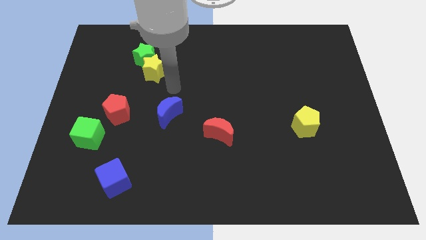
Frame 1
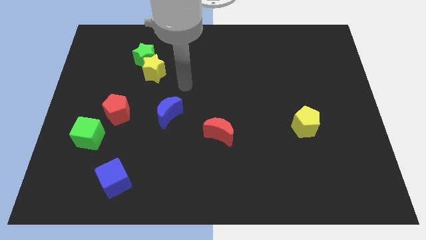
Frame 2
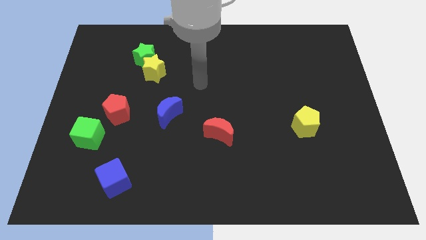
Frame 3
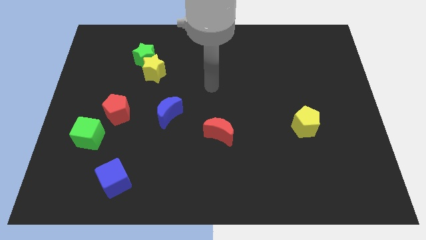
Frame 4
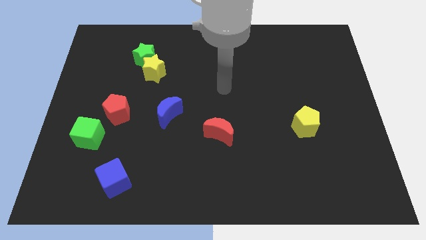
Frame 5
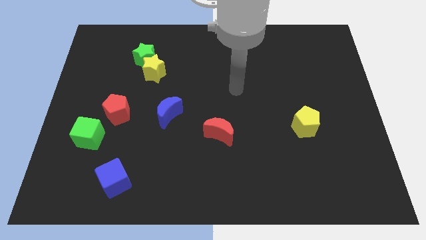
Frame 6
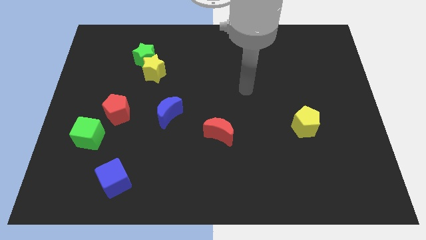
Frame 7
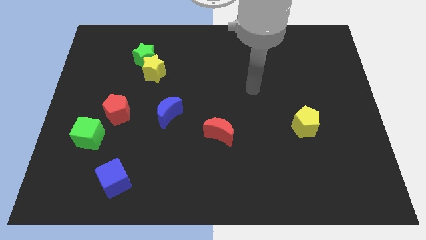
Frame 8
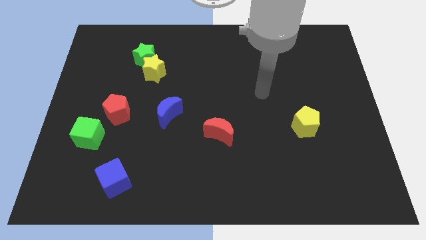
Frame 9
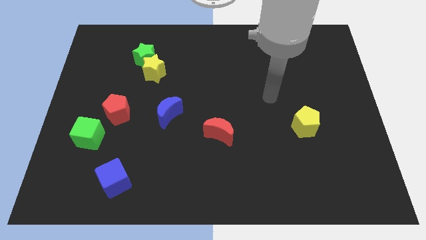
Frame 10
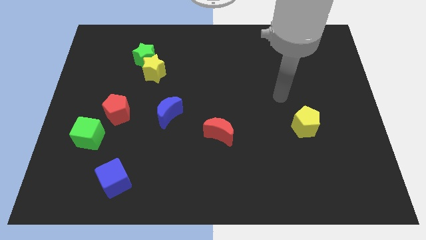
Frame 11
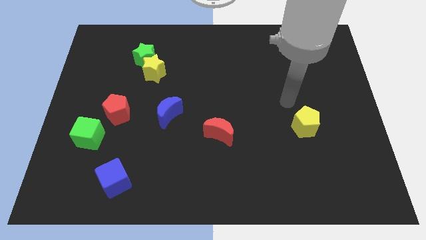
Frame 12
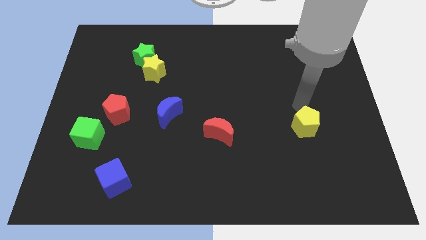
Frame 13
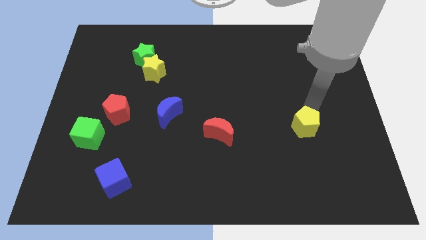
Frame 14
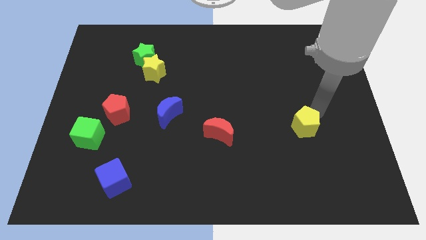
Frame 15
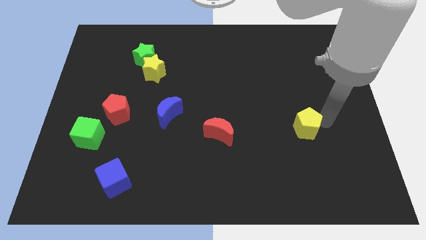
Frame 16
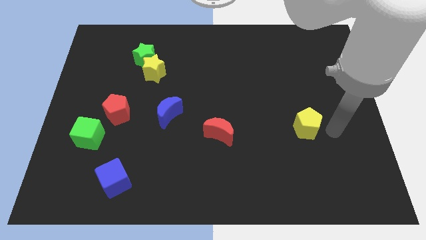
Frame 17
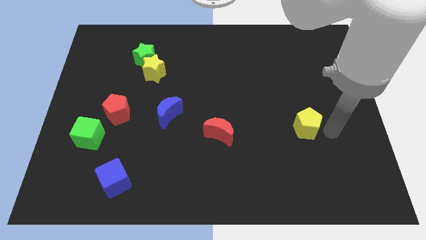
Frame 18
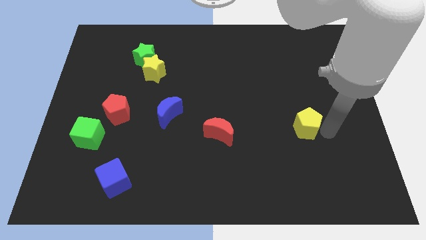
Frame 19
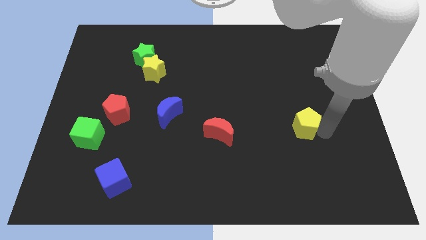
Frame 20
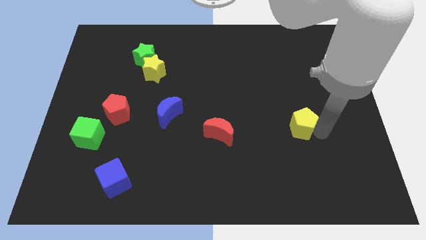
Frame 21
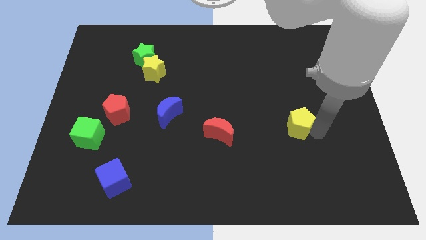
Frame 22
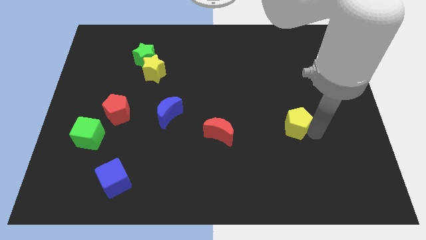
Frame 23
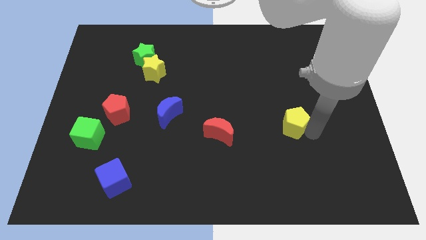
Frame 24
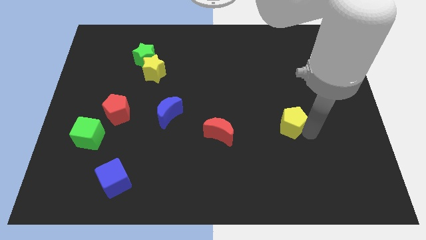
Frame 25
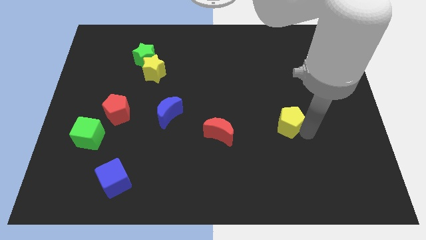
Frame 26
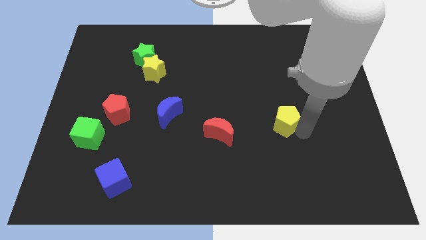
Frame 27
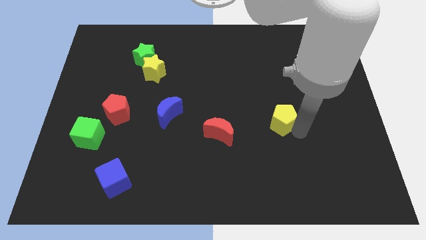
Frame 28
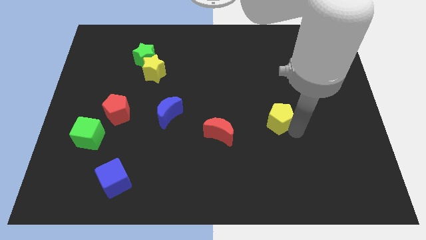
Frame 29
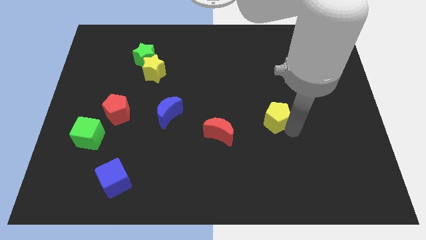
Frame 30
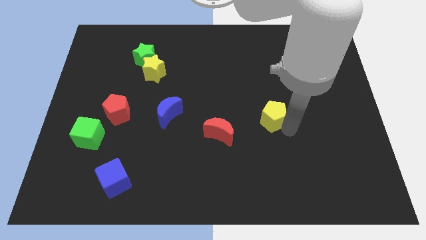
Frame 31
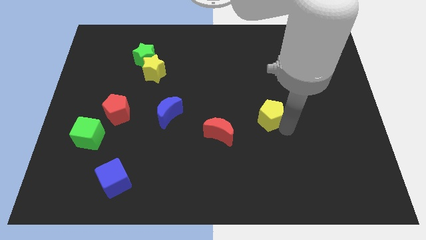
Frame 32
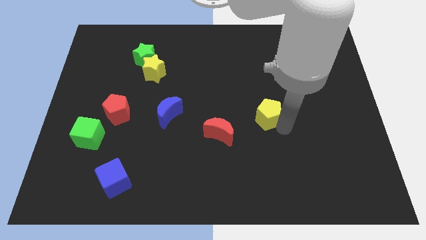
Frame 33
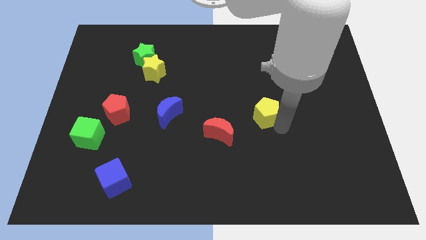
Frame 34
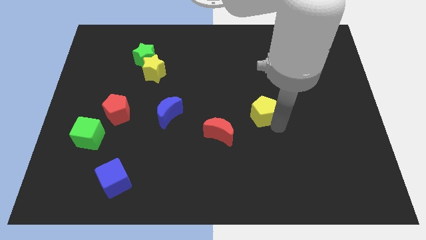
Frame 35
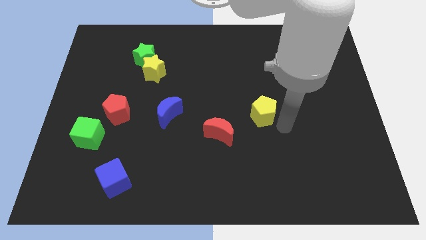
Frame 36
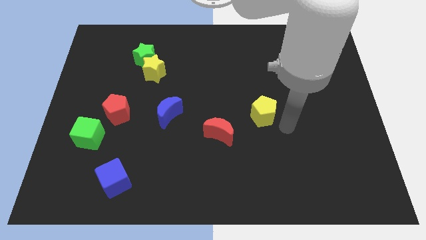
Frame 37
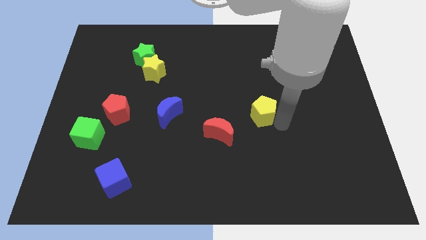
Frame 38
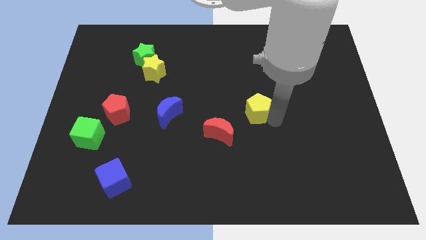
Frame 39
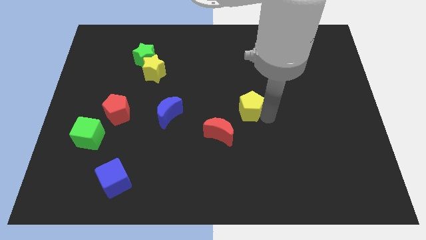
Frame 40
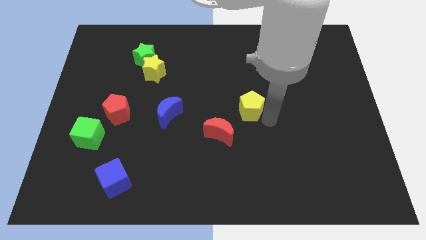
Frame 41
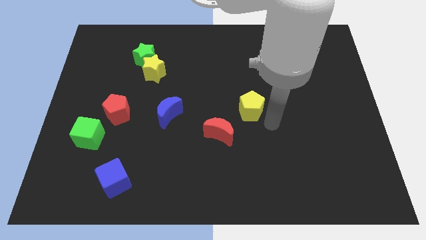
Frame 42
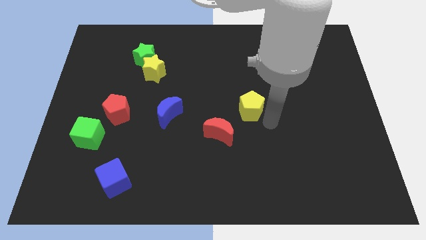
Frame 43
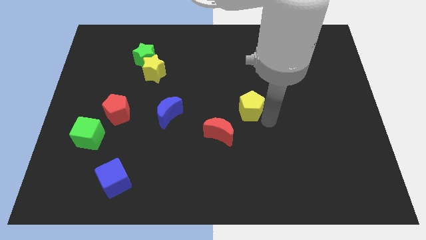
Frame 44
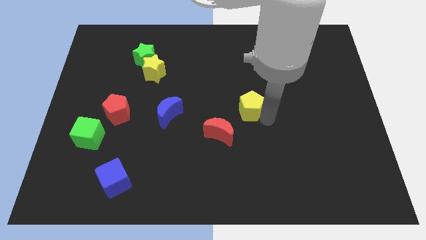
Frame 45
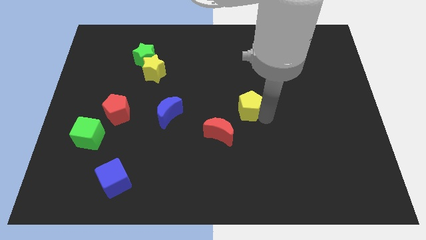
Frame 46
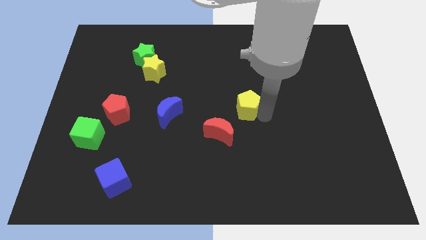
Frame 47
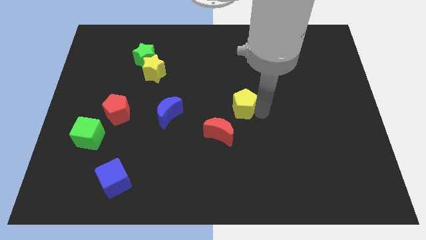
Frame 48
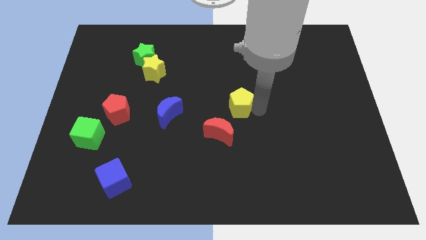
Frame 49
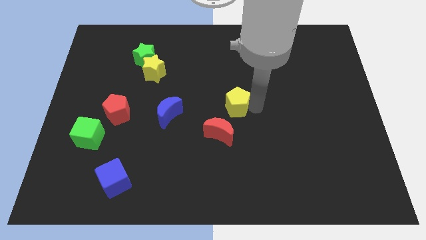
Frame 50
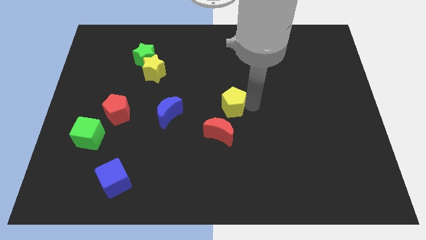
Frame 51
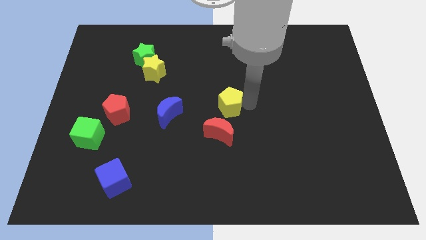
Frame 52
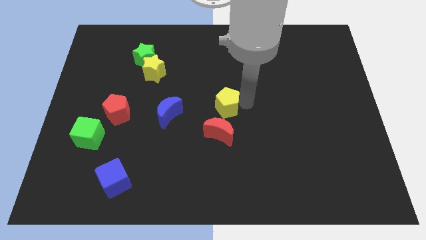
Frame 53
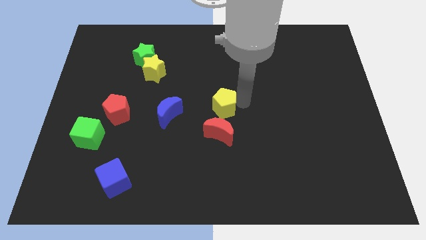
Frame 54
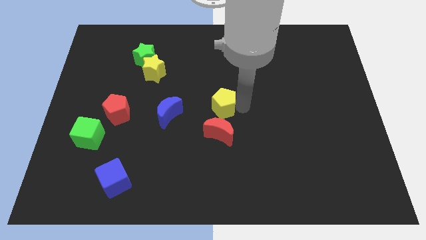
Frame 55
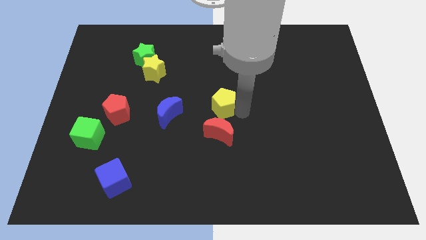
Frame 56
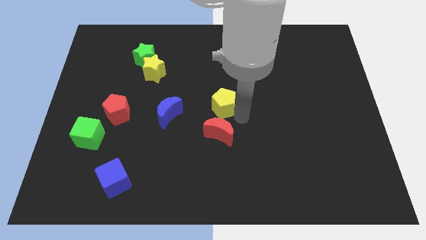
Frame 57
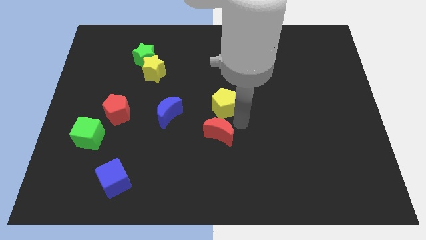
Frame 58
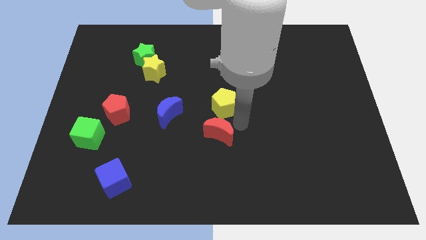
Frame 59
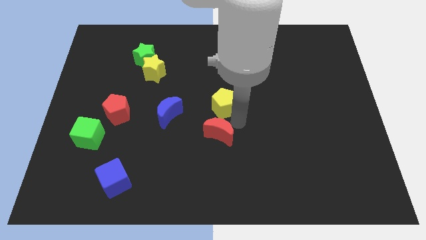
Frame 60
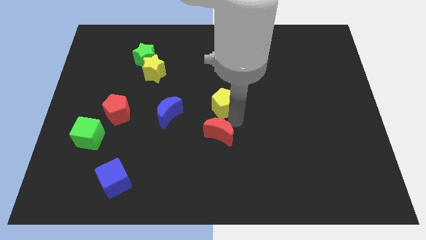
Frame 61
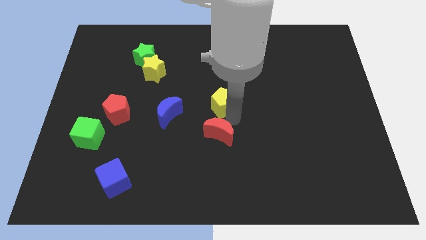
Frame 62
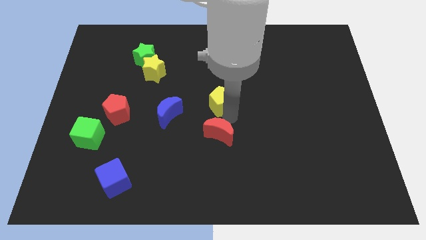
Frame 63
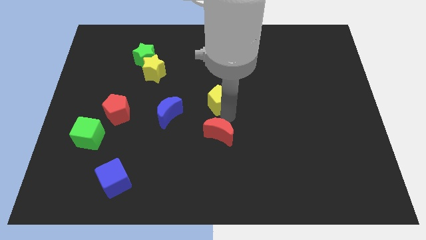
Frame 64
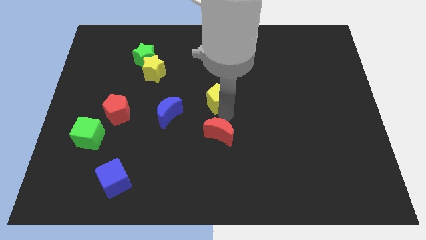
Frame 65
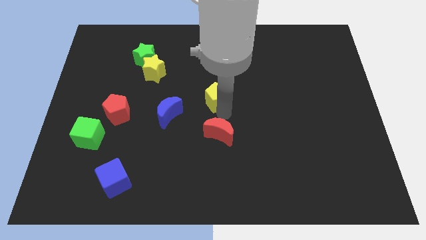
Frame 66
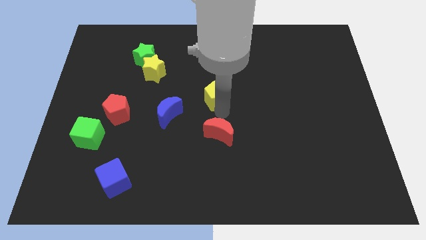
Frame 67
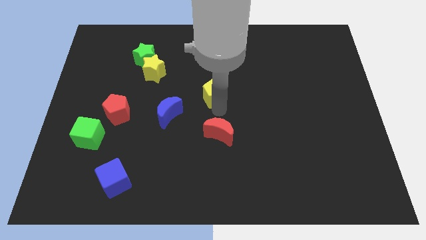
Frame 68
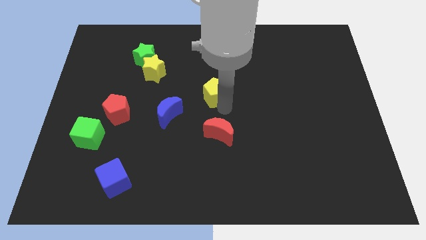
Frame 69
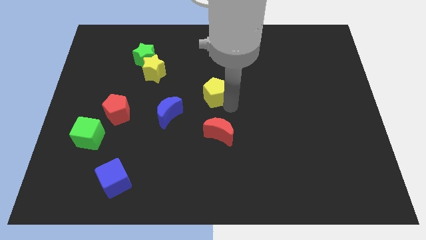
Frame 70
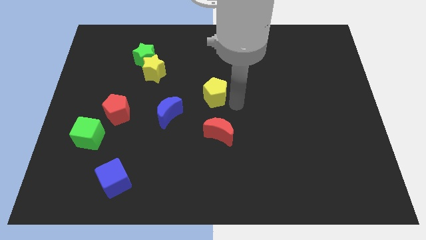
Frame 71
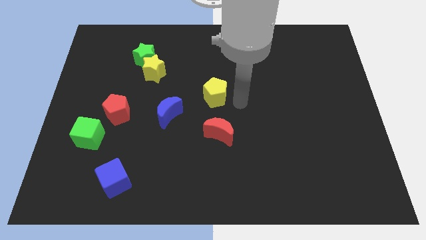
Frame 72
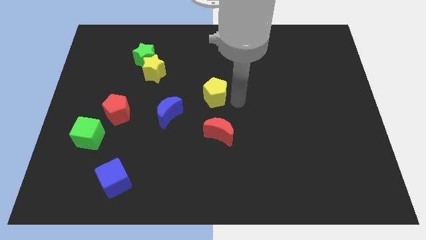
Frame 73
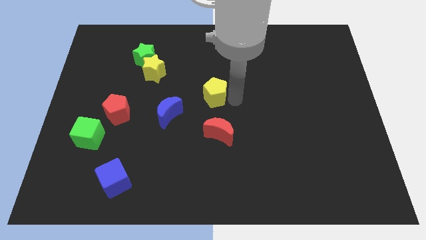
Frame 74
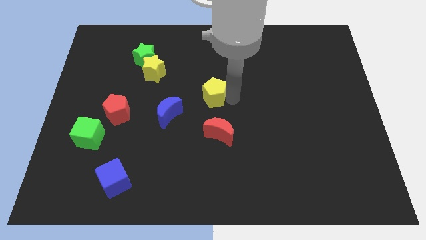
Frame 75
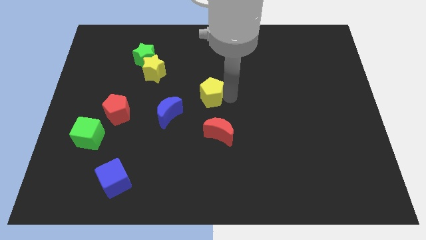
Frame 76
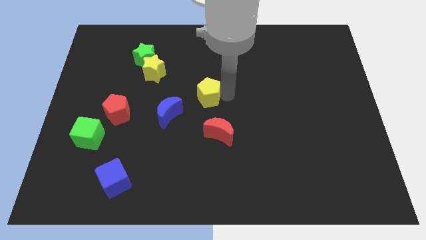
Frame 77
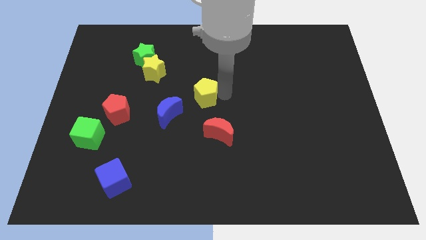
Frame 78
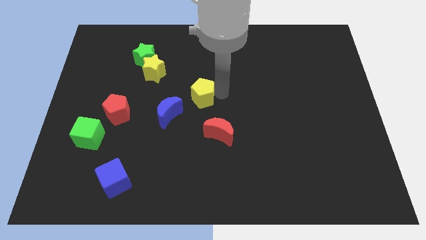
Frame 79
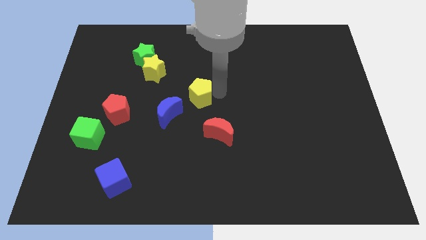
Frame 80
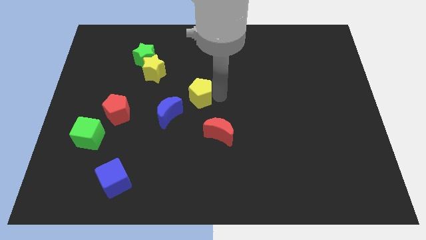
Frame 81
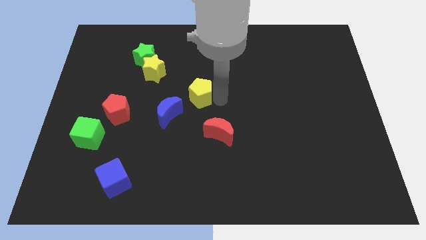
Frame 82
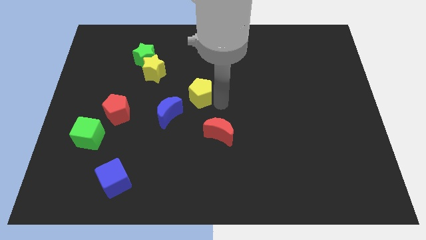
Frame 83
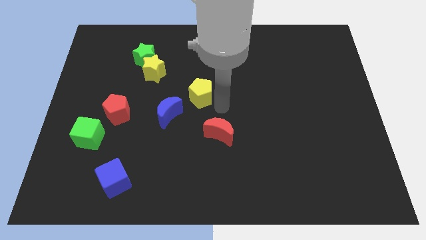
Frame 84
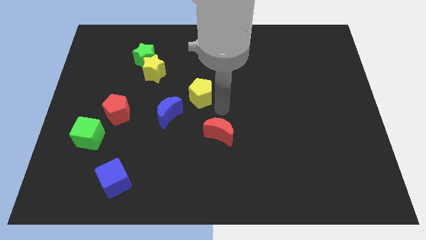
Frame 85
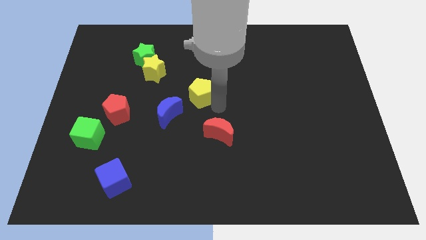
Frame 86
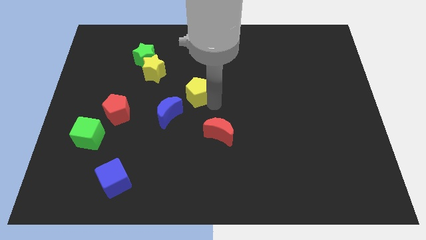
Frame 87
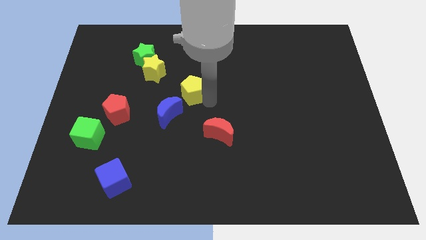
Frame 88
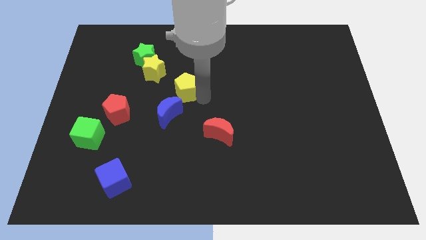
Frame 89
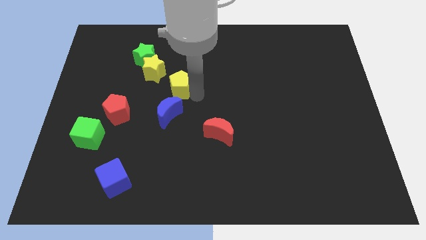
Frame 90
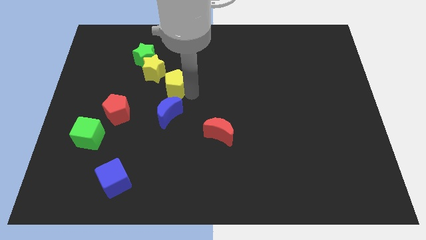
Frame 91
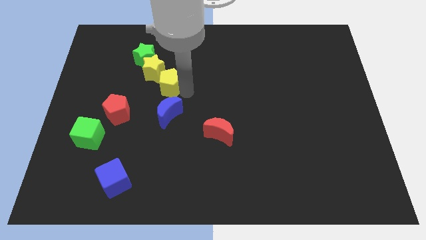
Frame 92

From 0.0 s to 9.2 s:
put the yellow pentagon close to the yellow star
